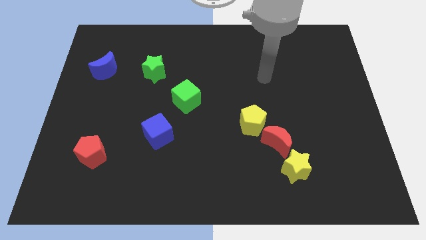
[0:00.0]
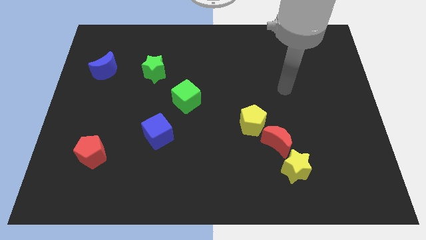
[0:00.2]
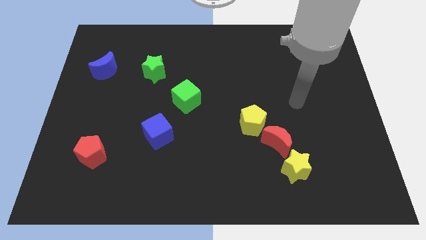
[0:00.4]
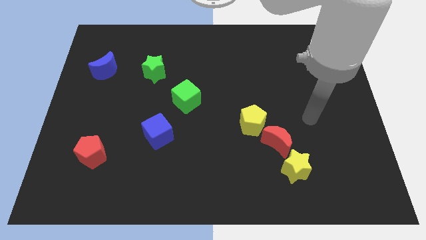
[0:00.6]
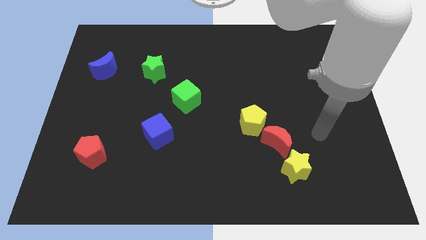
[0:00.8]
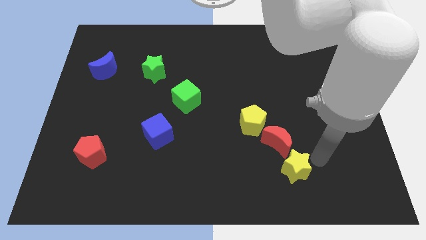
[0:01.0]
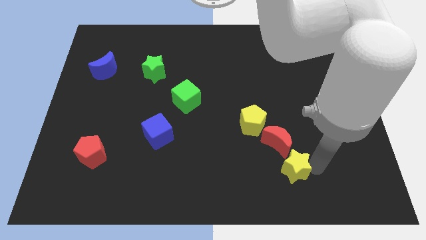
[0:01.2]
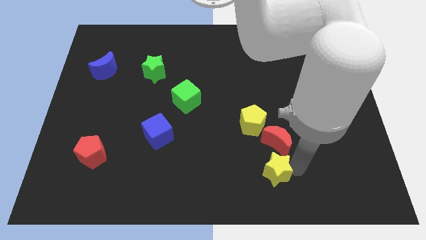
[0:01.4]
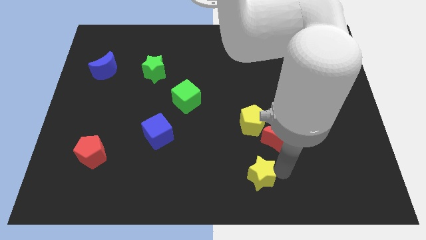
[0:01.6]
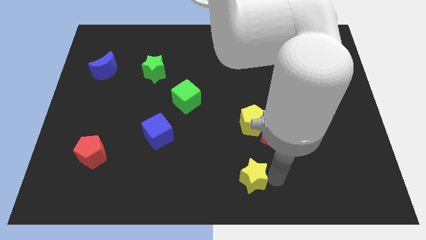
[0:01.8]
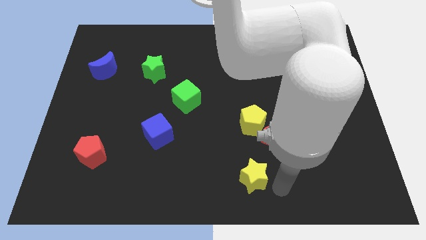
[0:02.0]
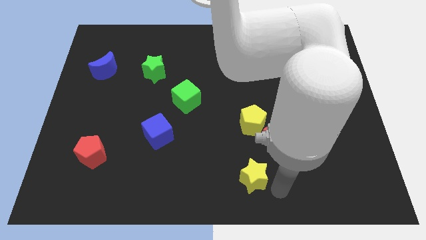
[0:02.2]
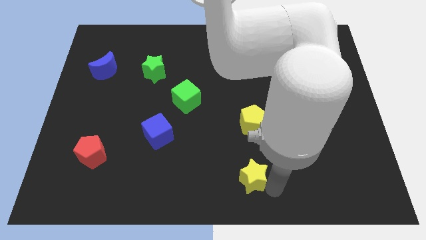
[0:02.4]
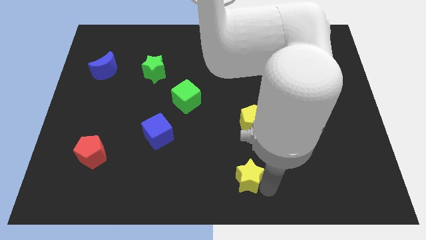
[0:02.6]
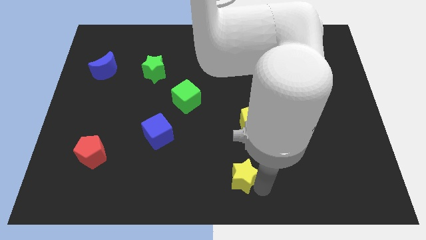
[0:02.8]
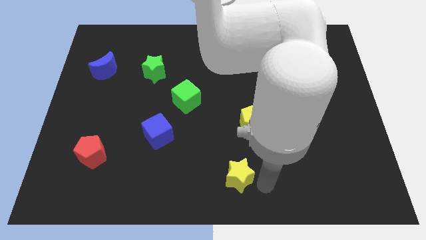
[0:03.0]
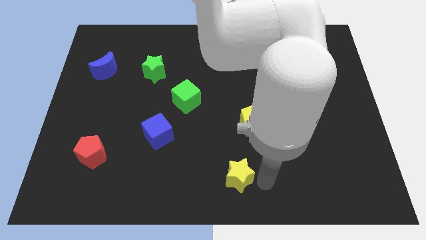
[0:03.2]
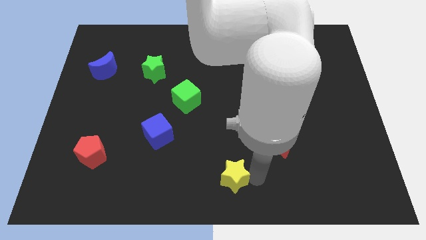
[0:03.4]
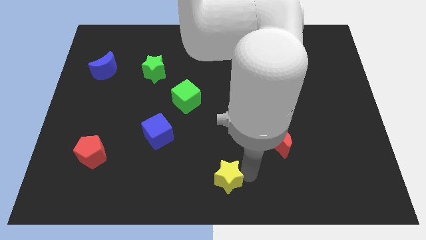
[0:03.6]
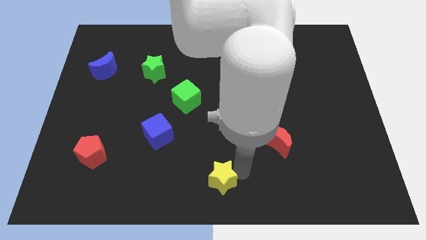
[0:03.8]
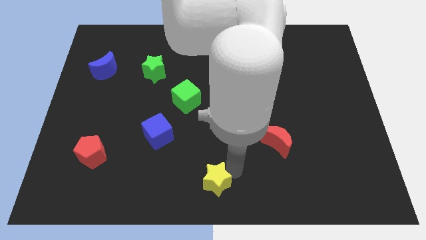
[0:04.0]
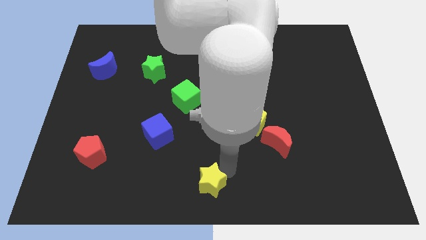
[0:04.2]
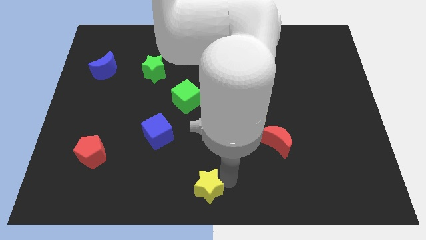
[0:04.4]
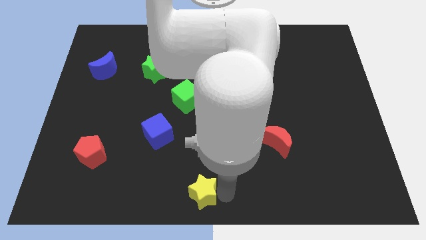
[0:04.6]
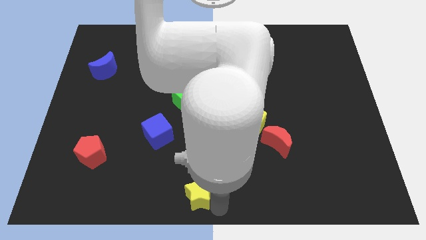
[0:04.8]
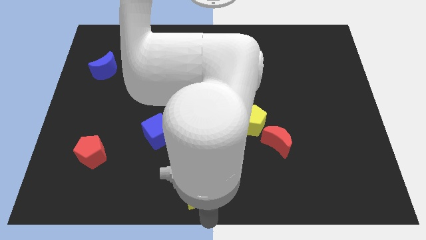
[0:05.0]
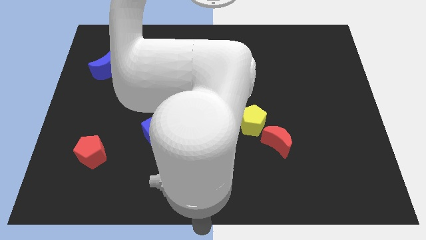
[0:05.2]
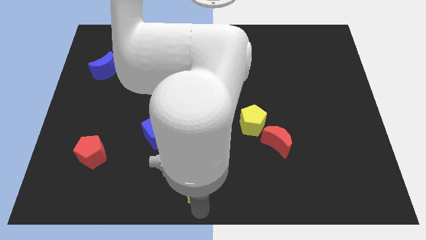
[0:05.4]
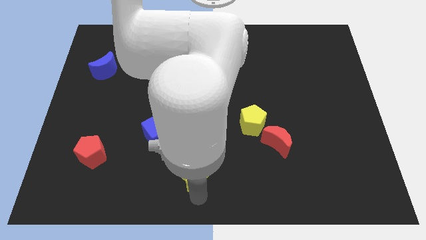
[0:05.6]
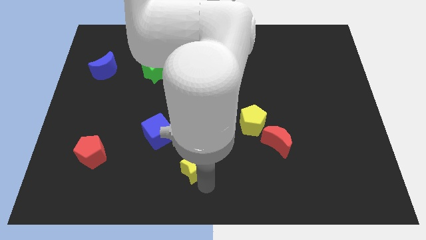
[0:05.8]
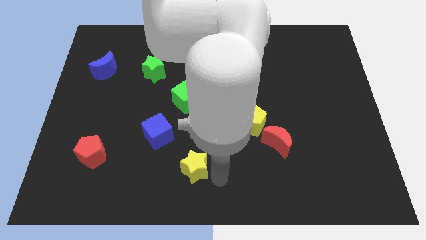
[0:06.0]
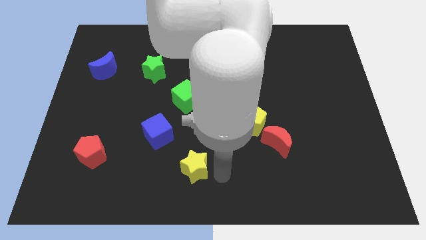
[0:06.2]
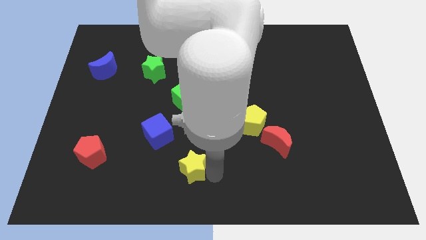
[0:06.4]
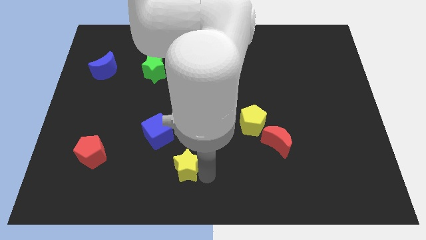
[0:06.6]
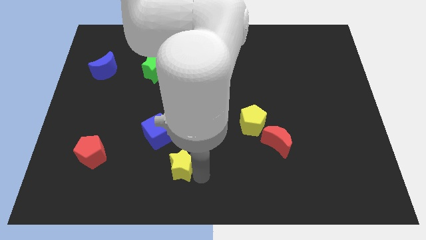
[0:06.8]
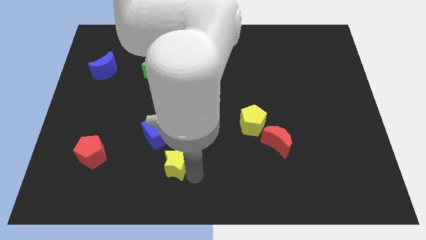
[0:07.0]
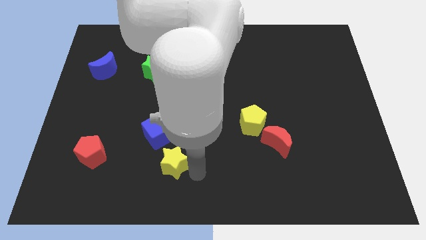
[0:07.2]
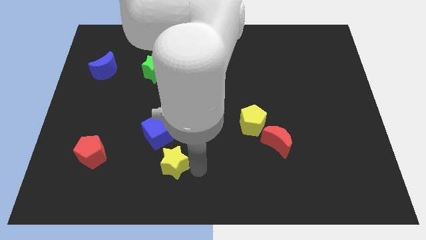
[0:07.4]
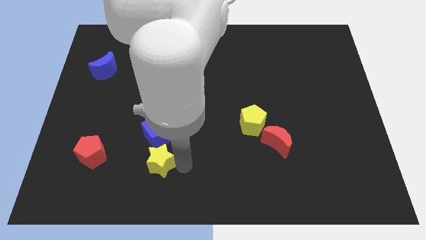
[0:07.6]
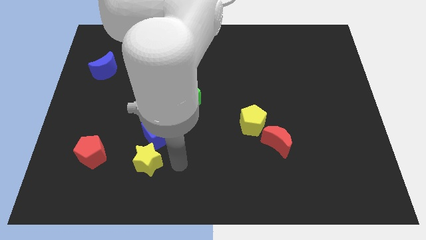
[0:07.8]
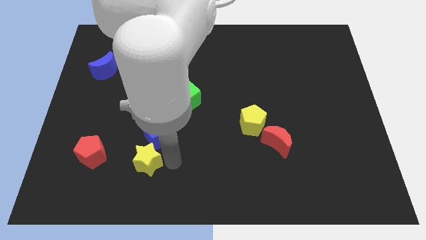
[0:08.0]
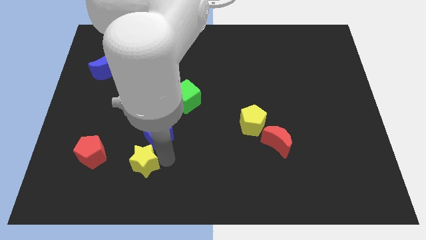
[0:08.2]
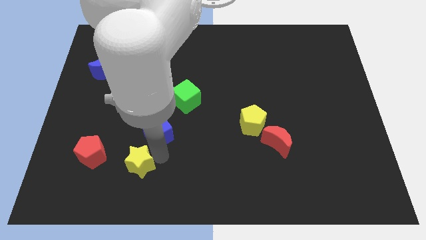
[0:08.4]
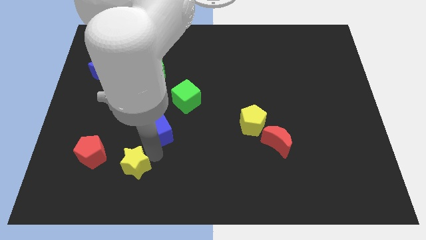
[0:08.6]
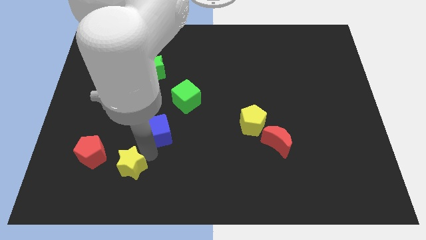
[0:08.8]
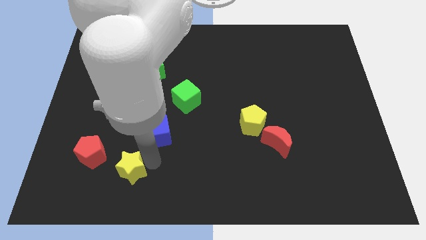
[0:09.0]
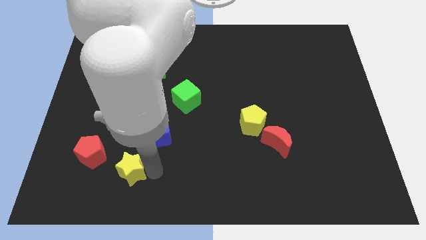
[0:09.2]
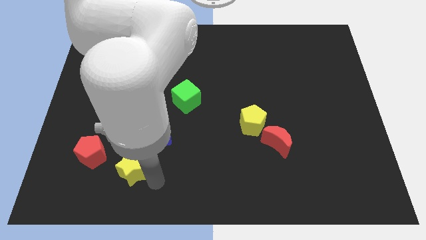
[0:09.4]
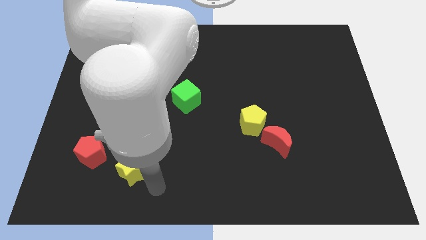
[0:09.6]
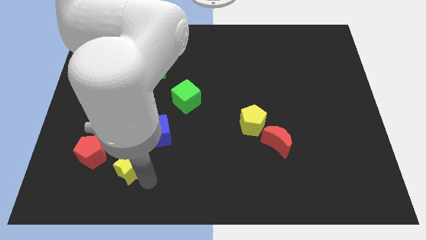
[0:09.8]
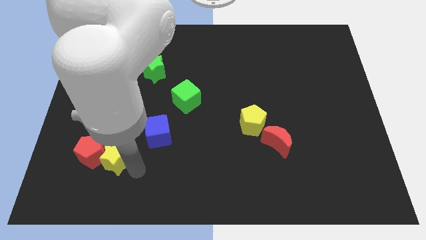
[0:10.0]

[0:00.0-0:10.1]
put the yellow star next to the red pentagon
